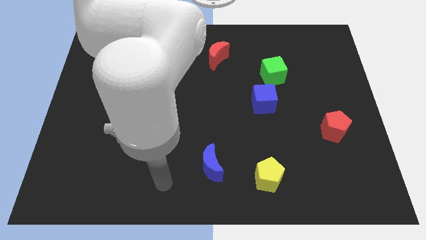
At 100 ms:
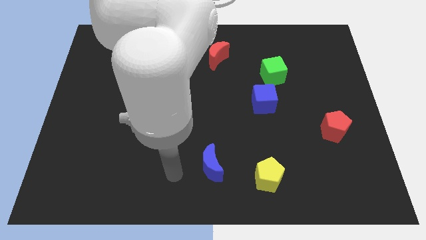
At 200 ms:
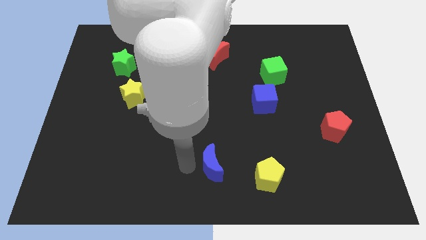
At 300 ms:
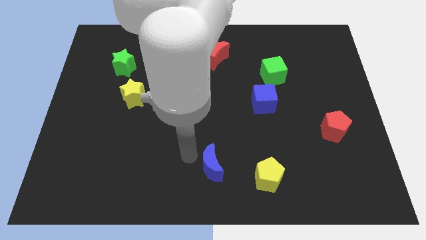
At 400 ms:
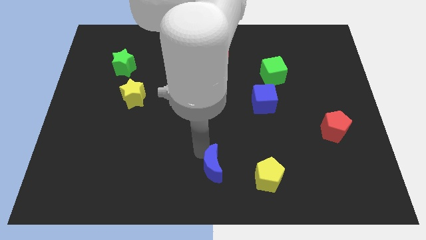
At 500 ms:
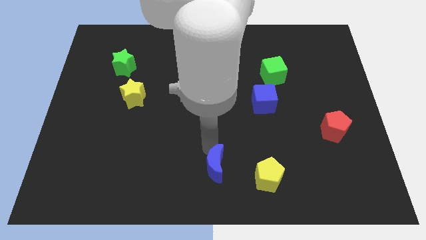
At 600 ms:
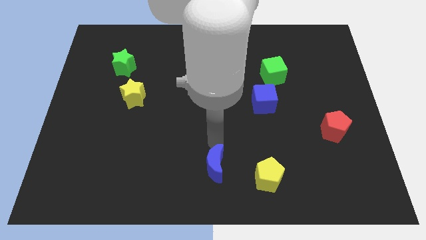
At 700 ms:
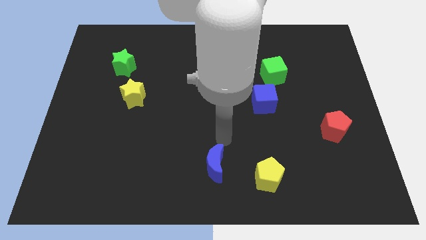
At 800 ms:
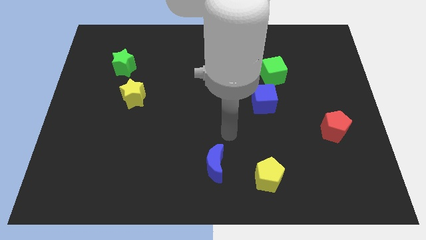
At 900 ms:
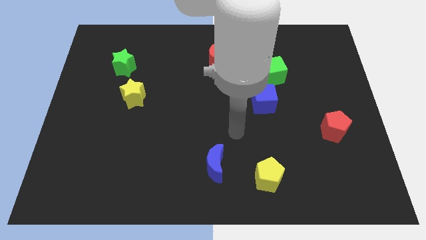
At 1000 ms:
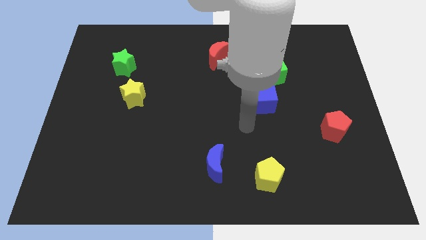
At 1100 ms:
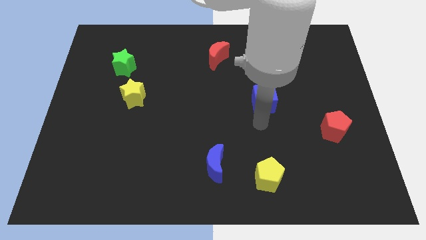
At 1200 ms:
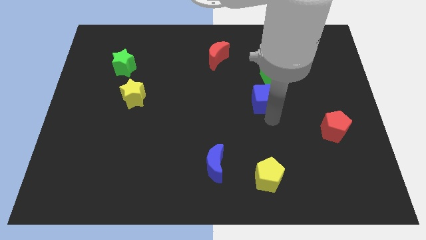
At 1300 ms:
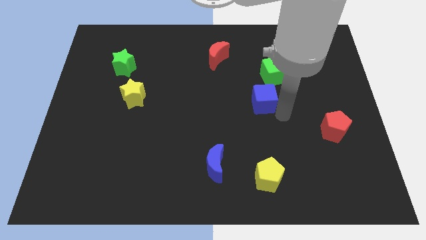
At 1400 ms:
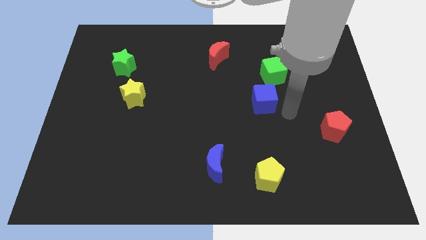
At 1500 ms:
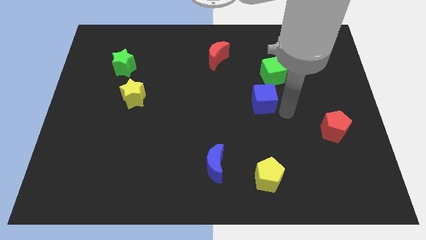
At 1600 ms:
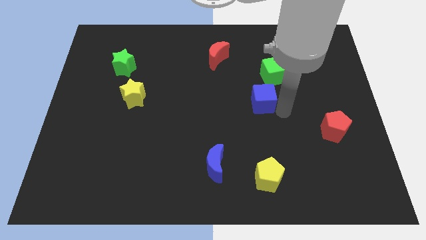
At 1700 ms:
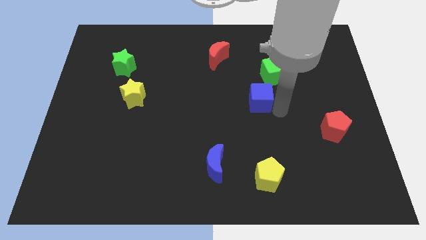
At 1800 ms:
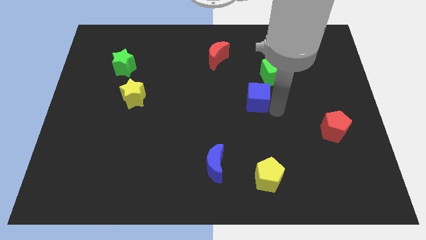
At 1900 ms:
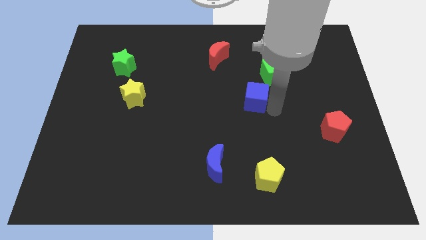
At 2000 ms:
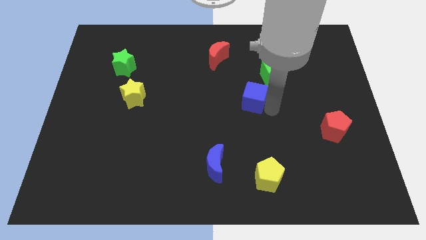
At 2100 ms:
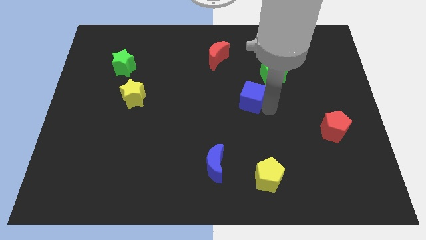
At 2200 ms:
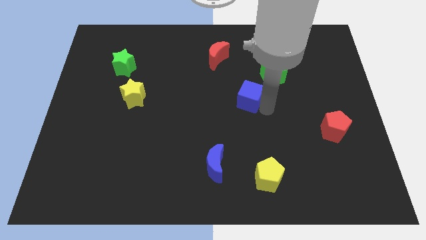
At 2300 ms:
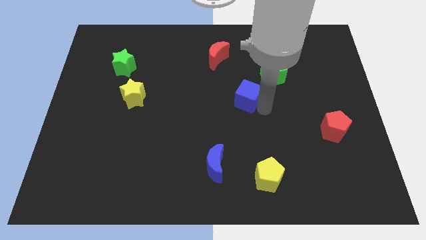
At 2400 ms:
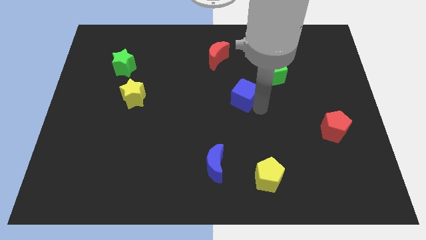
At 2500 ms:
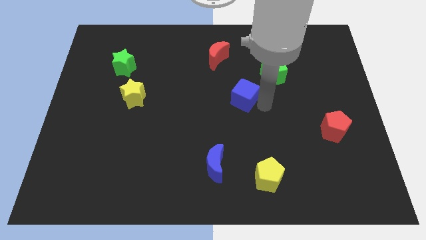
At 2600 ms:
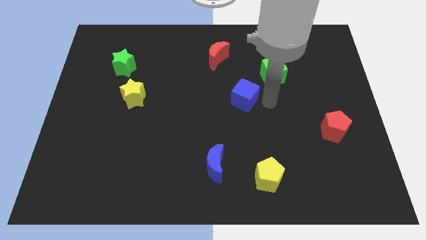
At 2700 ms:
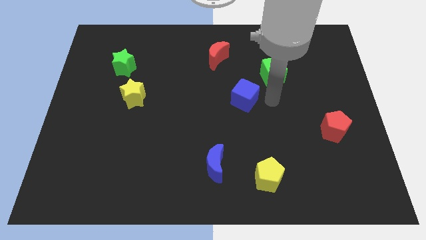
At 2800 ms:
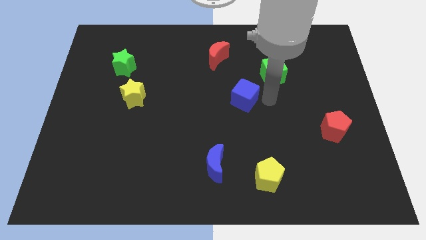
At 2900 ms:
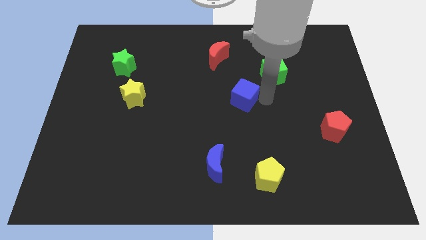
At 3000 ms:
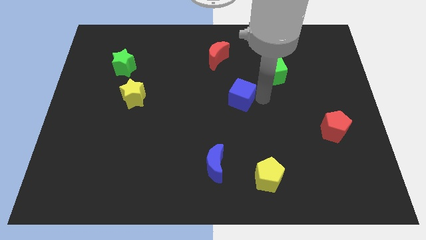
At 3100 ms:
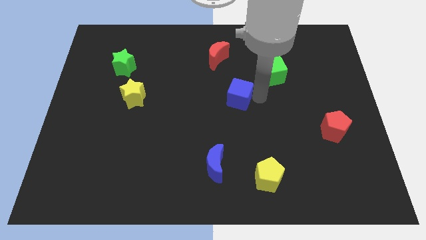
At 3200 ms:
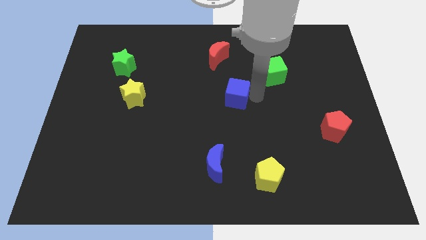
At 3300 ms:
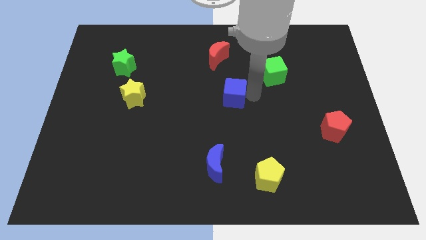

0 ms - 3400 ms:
push the blue cube a little bit to the left

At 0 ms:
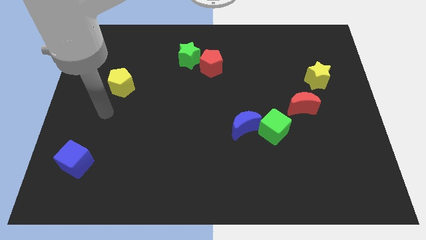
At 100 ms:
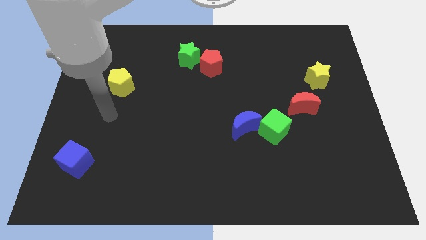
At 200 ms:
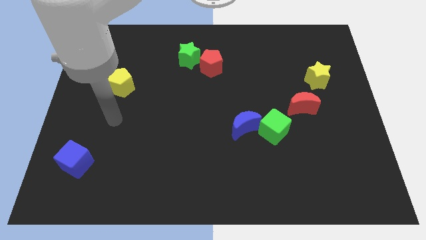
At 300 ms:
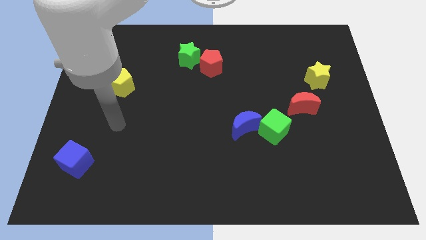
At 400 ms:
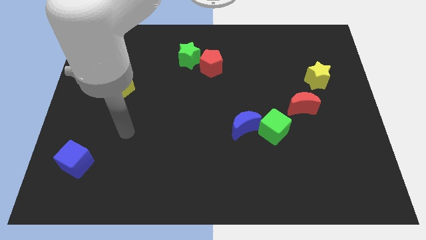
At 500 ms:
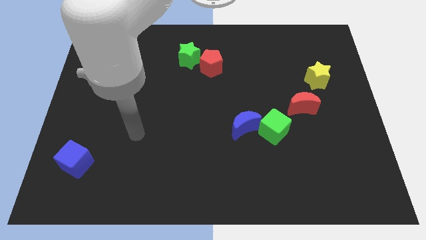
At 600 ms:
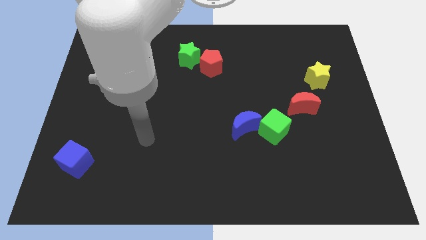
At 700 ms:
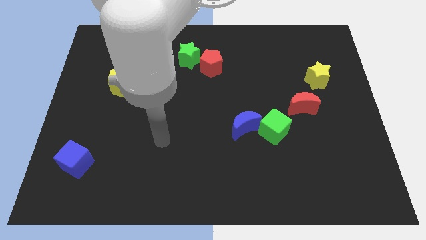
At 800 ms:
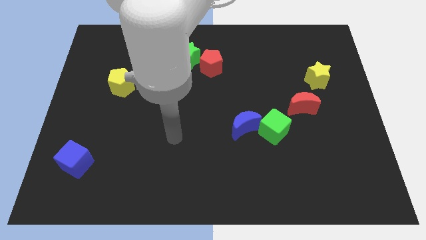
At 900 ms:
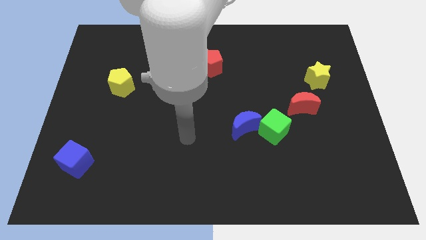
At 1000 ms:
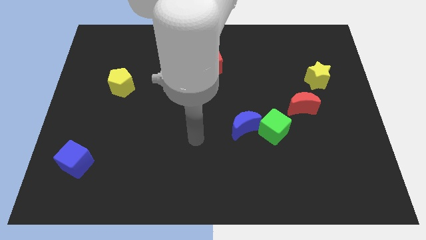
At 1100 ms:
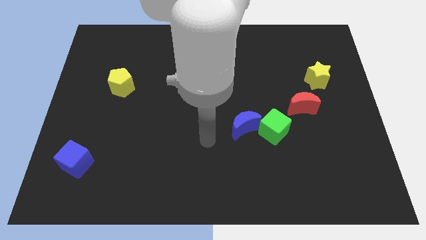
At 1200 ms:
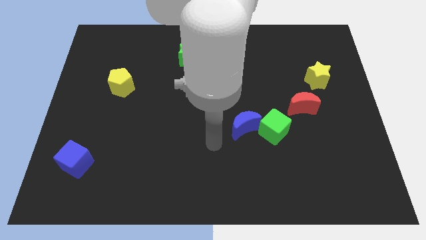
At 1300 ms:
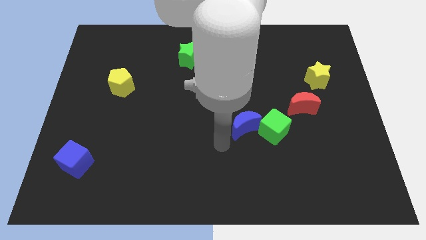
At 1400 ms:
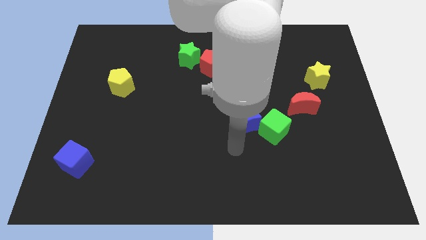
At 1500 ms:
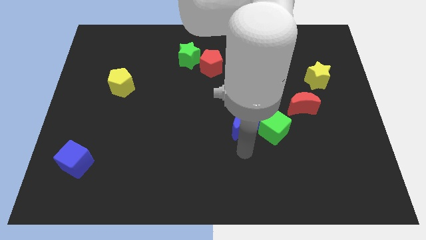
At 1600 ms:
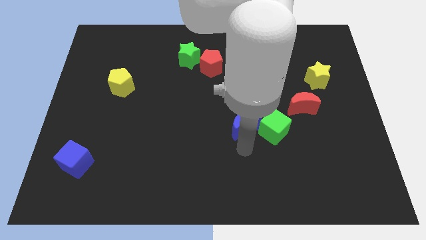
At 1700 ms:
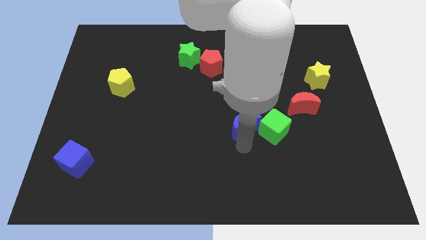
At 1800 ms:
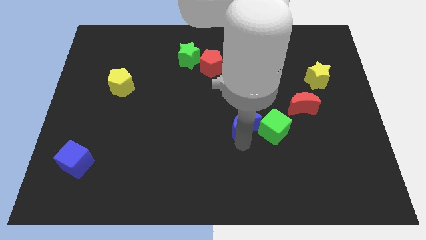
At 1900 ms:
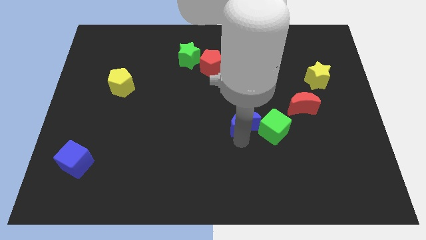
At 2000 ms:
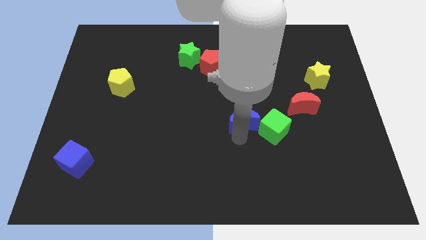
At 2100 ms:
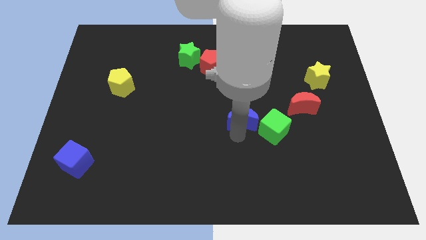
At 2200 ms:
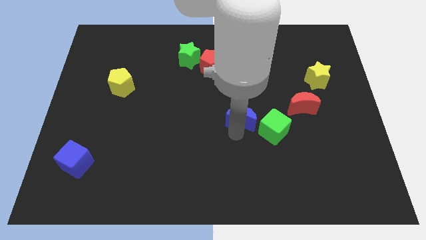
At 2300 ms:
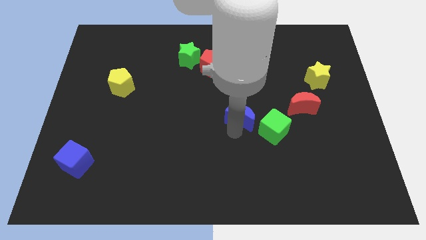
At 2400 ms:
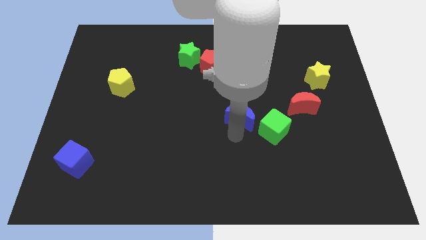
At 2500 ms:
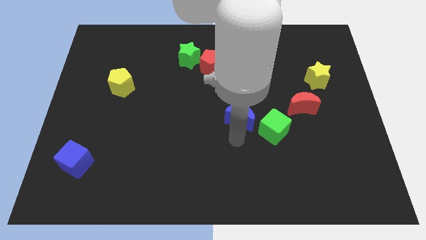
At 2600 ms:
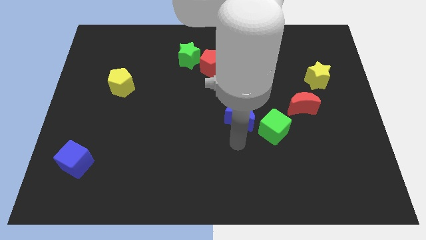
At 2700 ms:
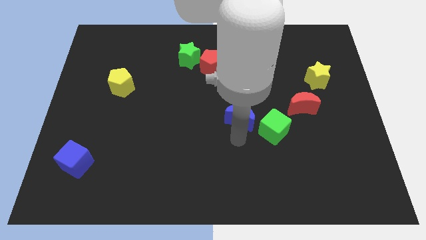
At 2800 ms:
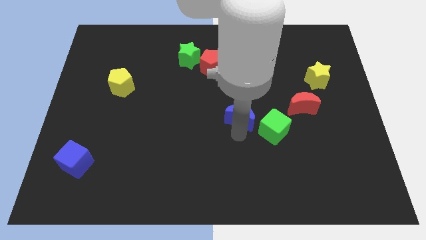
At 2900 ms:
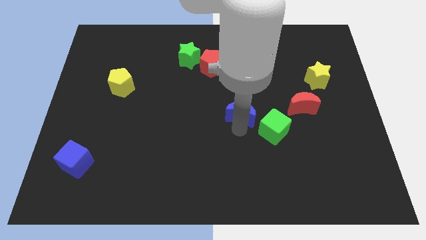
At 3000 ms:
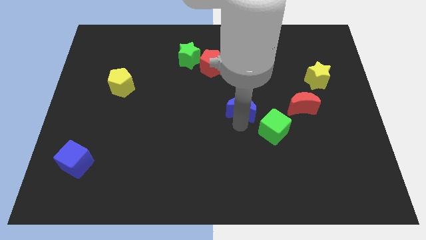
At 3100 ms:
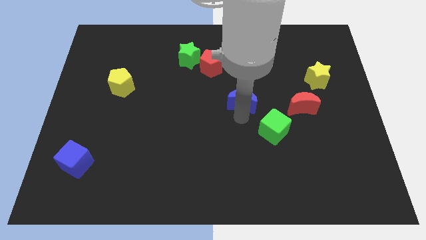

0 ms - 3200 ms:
slightly slide the blue moon upwards

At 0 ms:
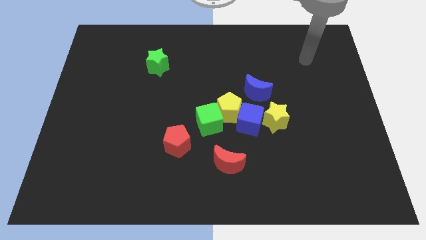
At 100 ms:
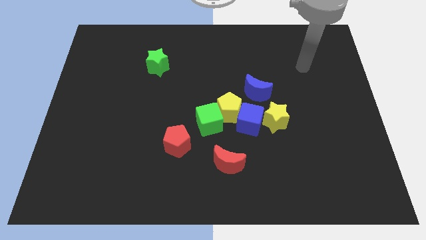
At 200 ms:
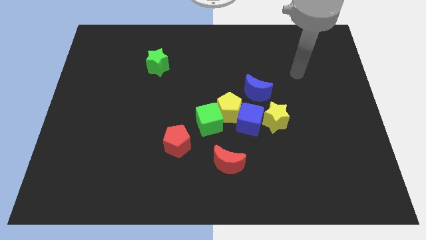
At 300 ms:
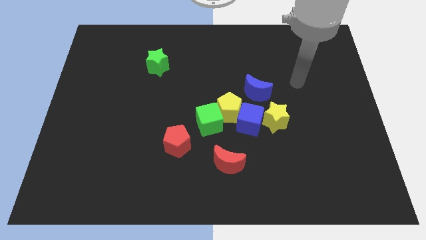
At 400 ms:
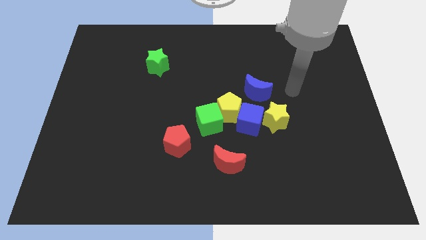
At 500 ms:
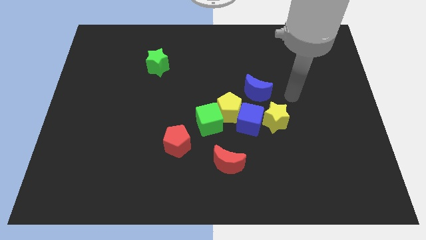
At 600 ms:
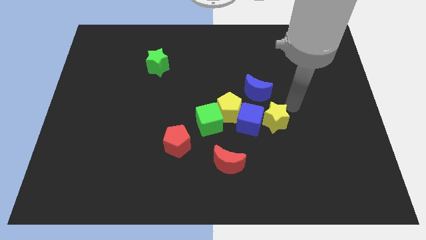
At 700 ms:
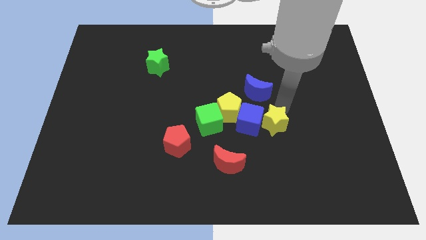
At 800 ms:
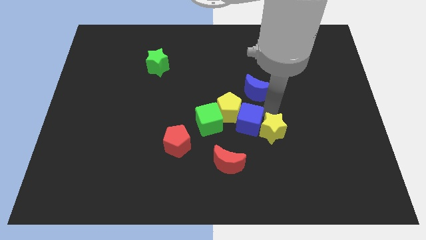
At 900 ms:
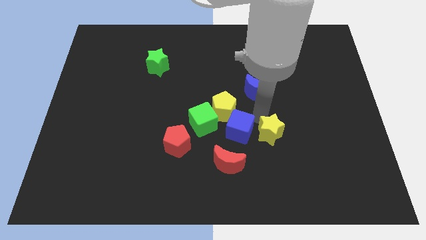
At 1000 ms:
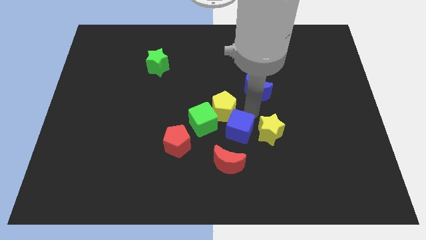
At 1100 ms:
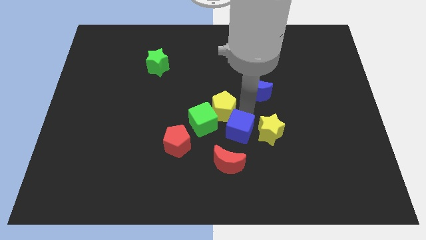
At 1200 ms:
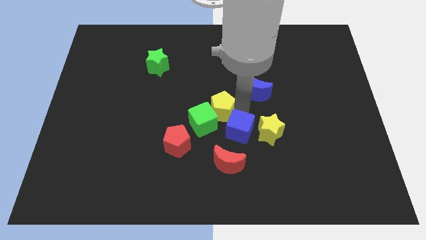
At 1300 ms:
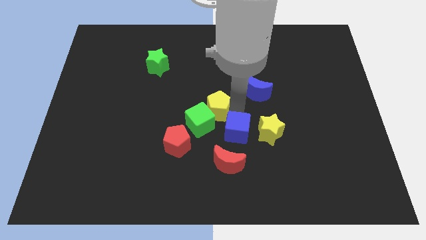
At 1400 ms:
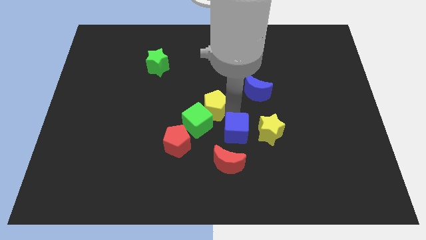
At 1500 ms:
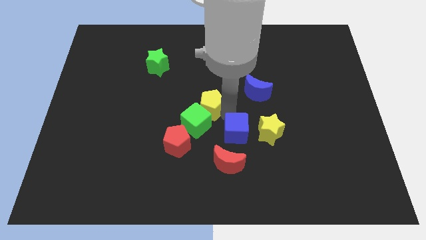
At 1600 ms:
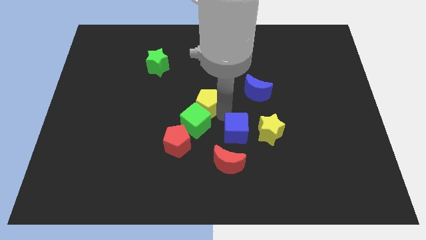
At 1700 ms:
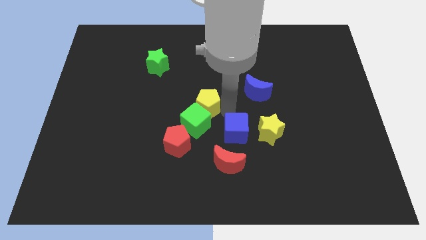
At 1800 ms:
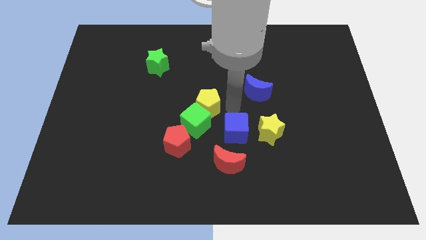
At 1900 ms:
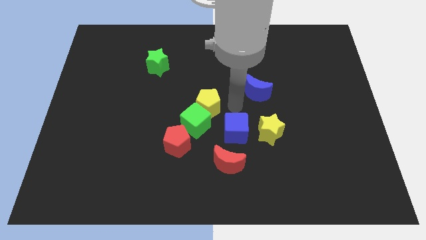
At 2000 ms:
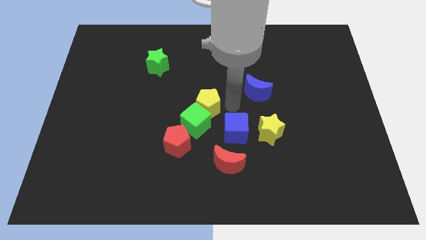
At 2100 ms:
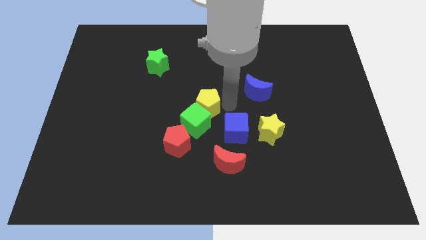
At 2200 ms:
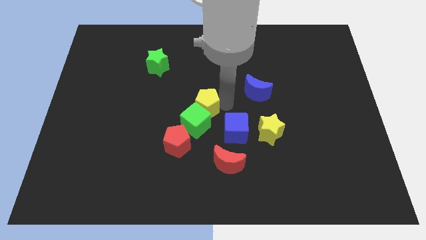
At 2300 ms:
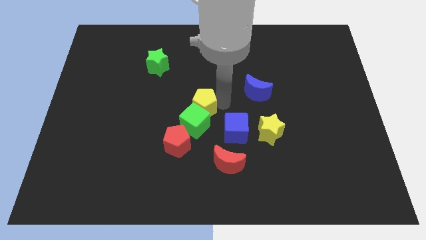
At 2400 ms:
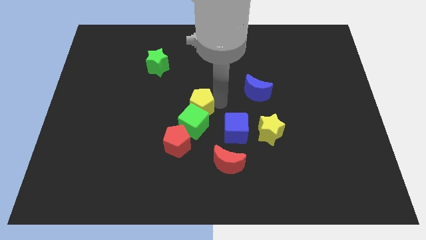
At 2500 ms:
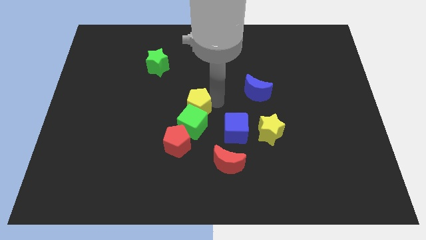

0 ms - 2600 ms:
slide the yellow pentagon slightly left
